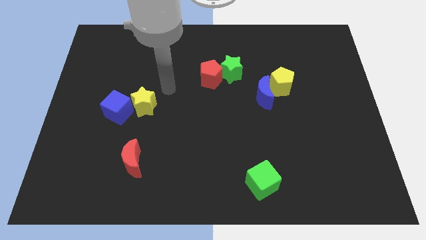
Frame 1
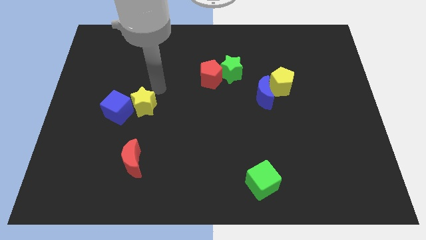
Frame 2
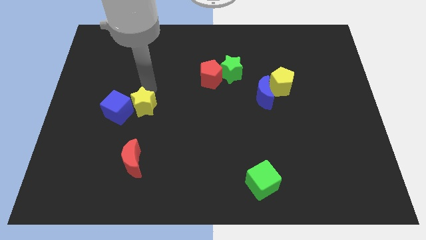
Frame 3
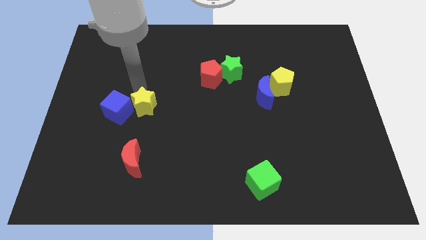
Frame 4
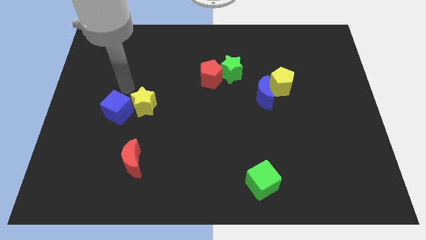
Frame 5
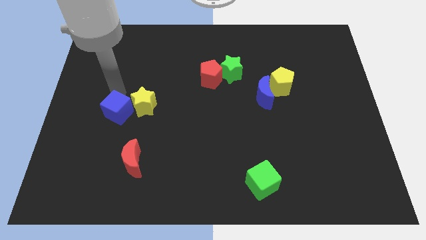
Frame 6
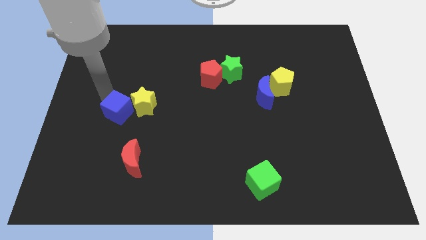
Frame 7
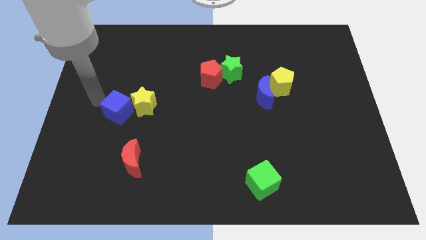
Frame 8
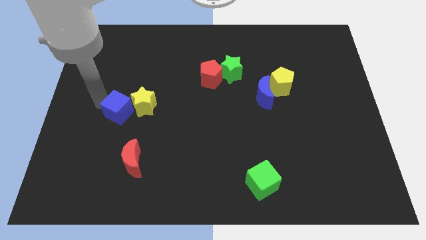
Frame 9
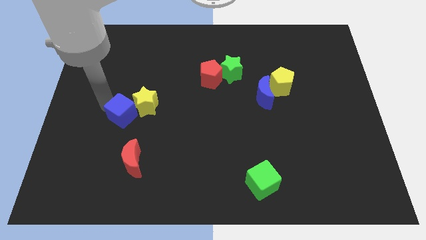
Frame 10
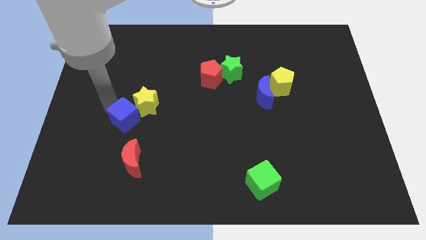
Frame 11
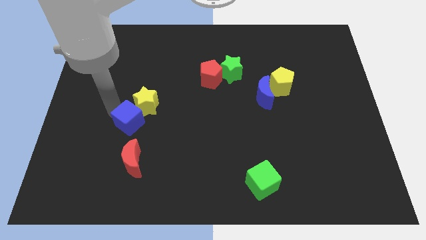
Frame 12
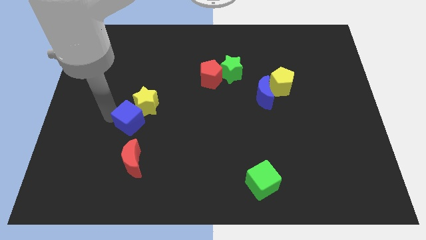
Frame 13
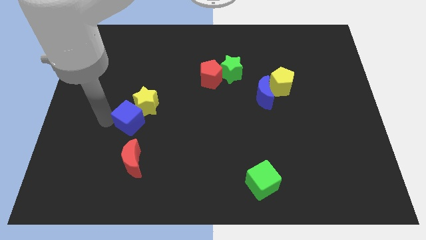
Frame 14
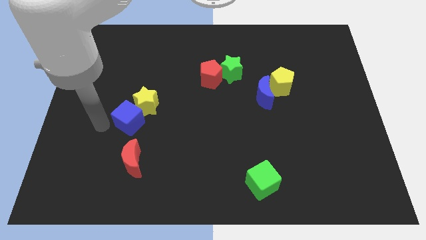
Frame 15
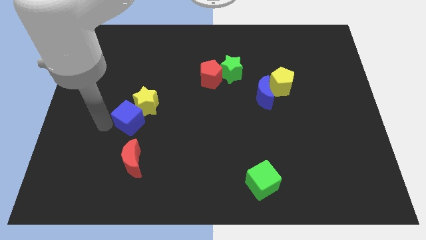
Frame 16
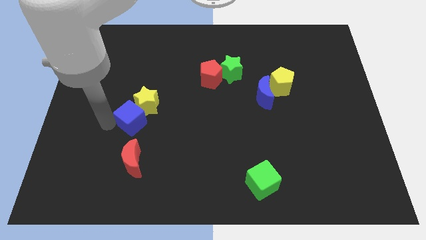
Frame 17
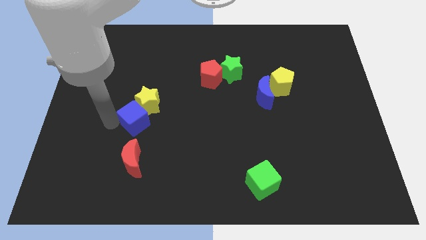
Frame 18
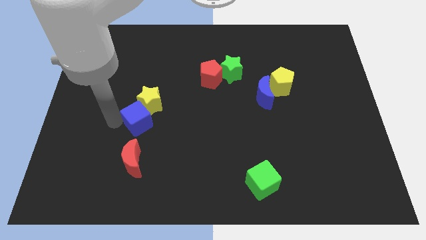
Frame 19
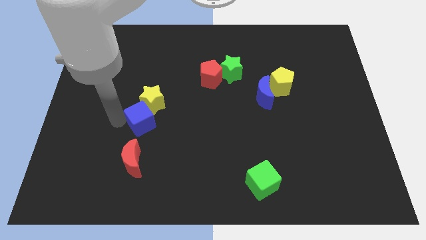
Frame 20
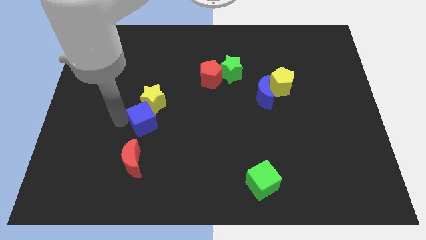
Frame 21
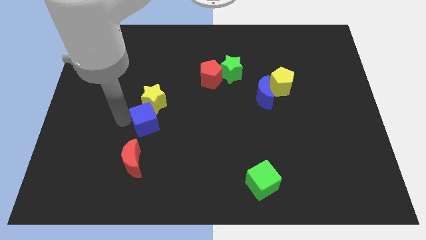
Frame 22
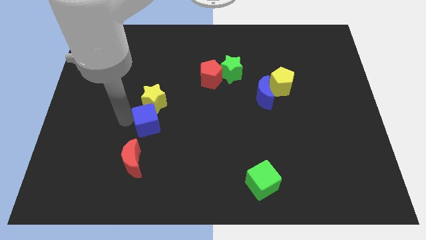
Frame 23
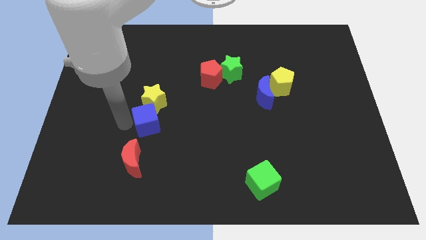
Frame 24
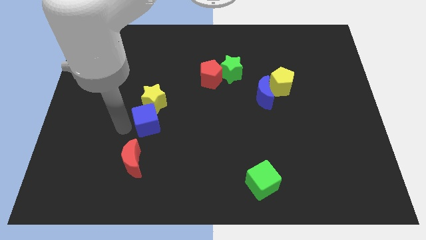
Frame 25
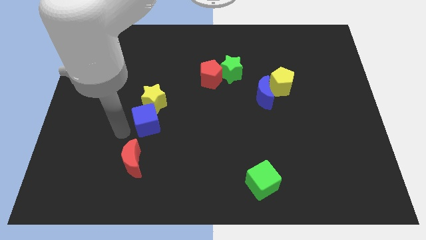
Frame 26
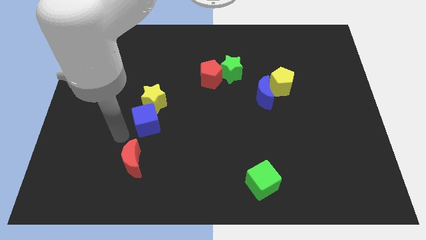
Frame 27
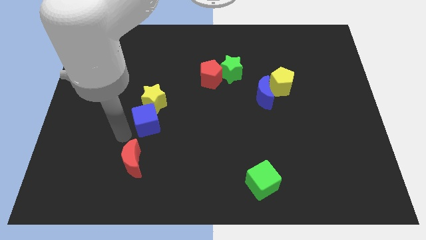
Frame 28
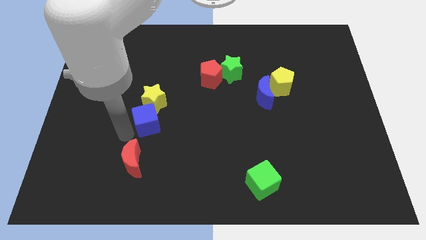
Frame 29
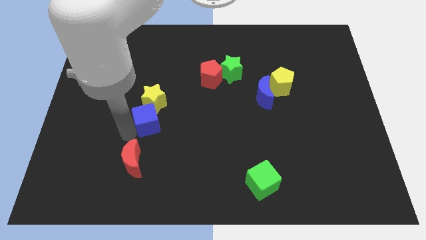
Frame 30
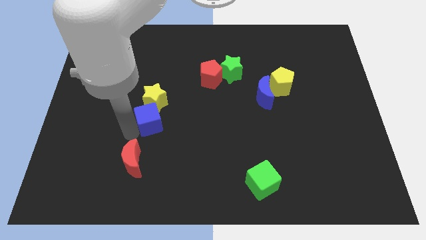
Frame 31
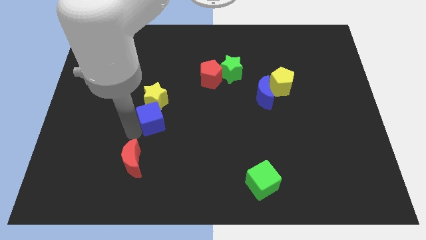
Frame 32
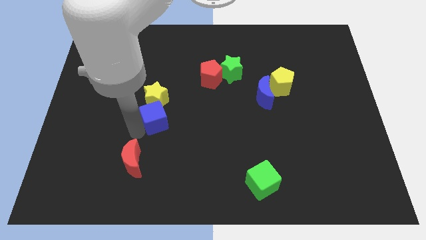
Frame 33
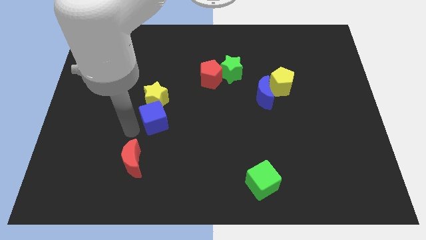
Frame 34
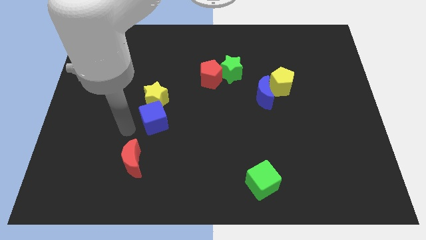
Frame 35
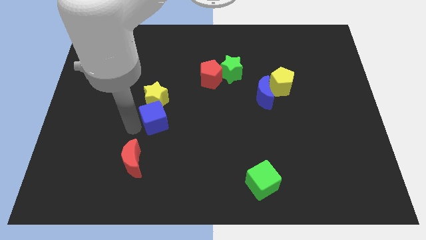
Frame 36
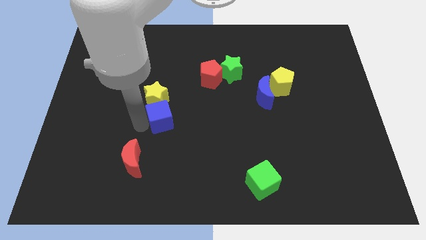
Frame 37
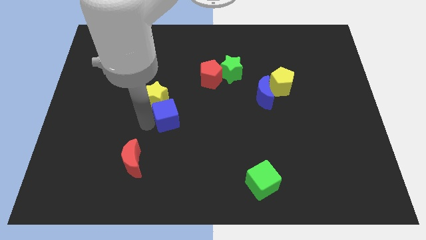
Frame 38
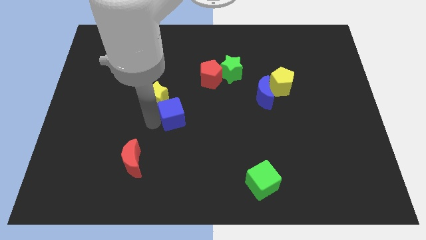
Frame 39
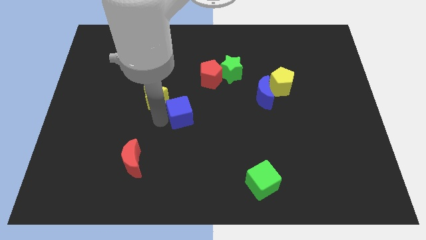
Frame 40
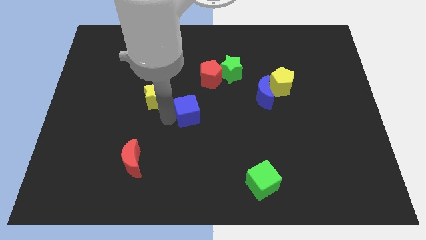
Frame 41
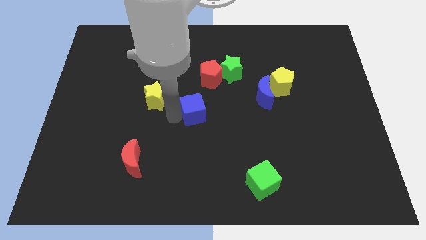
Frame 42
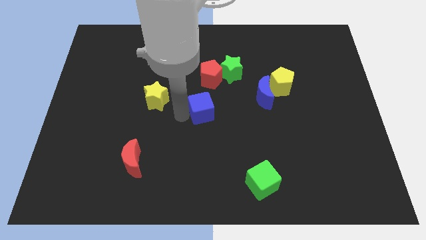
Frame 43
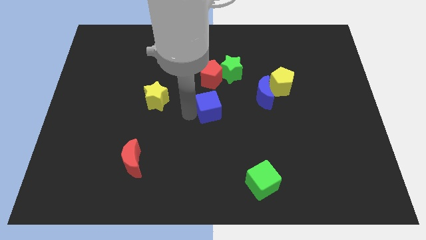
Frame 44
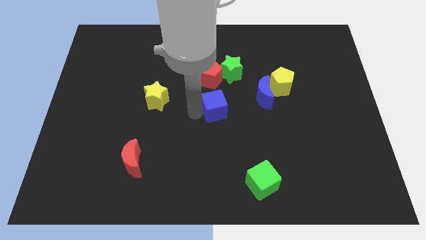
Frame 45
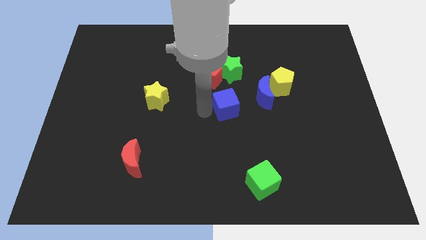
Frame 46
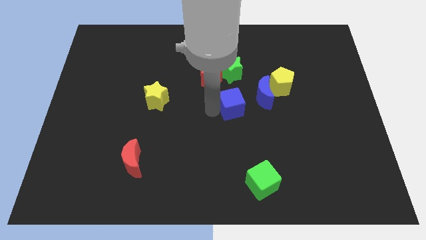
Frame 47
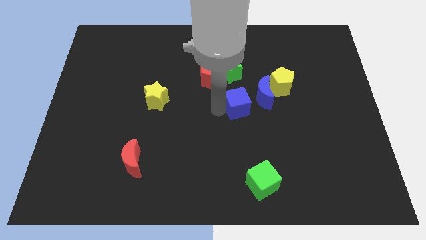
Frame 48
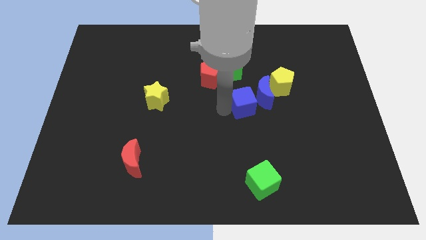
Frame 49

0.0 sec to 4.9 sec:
put the blue cube next to the blue moon

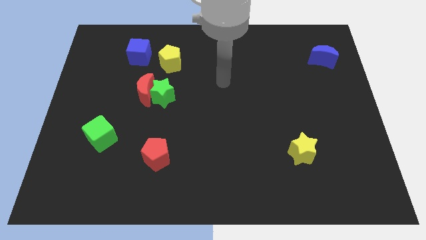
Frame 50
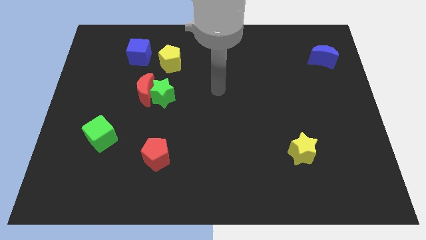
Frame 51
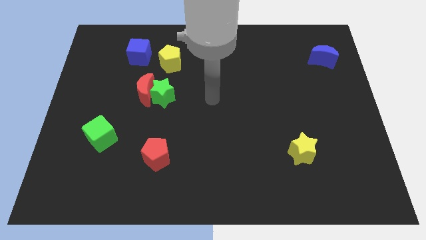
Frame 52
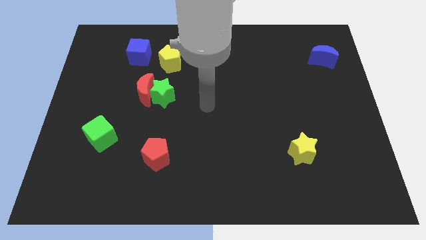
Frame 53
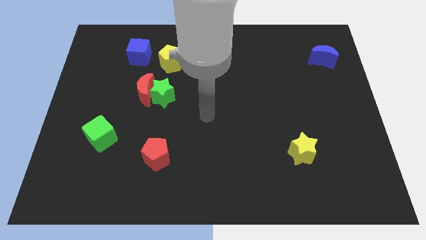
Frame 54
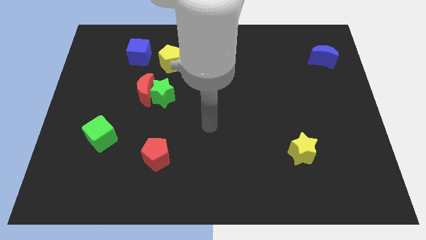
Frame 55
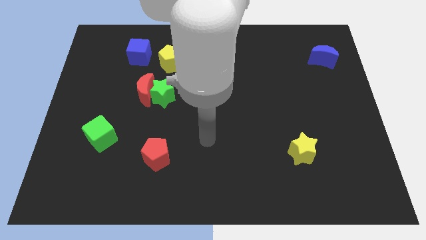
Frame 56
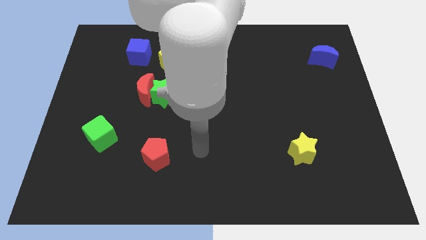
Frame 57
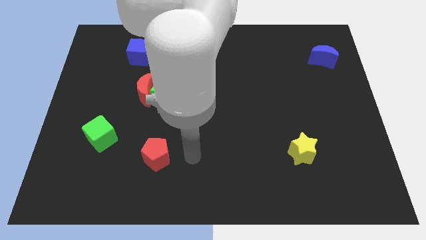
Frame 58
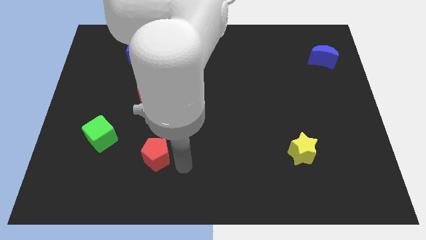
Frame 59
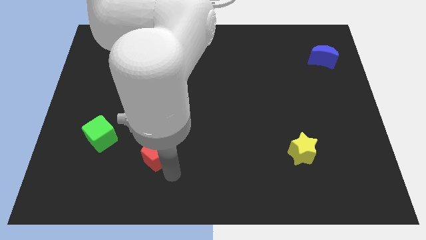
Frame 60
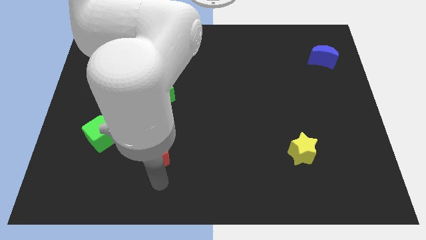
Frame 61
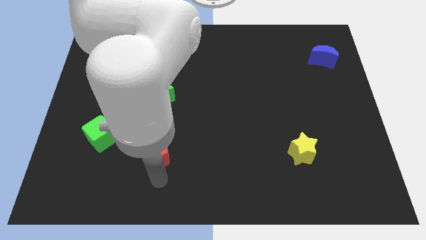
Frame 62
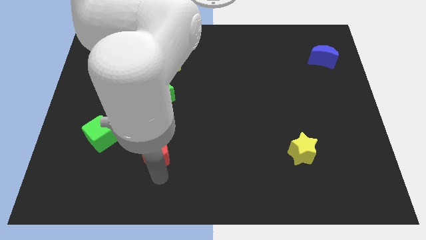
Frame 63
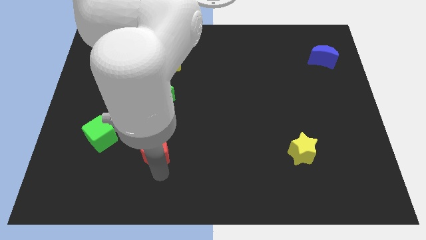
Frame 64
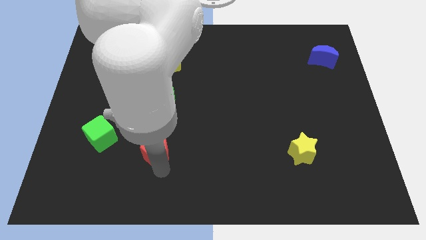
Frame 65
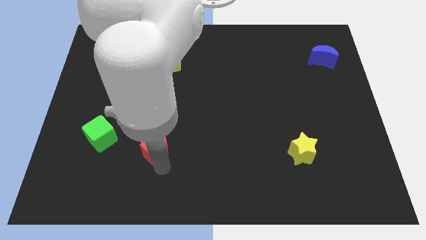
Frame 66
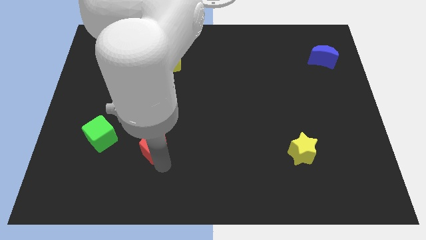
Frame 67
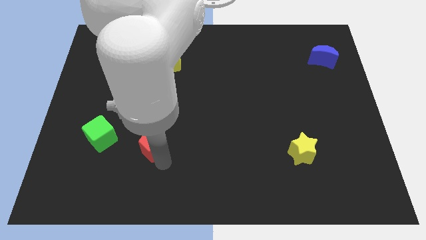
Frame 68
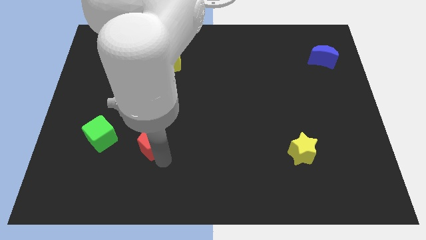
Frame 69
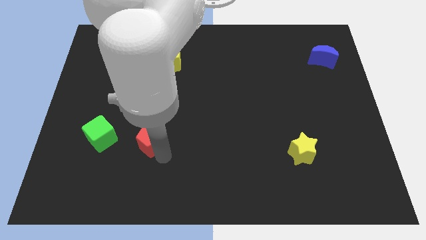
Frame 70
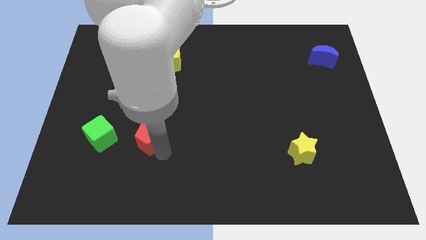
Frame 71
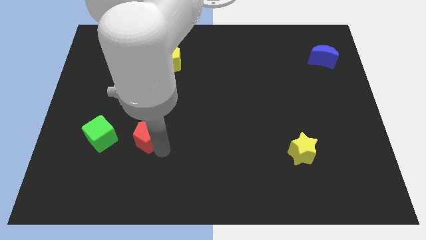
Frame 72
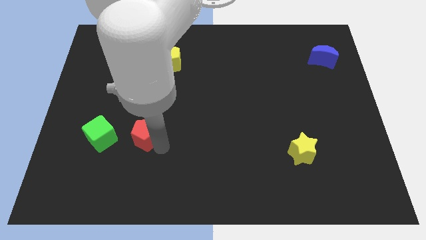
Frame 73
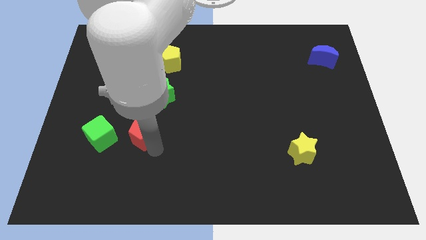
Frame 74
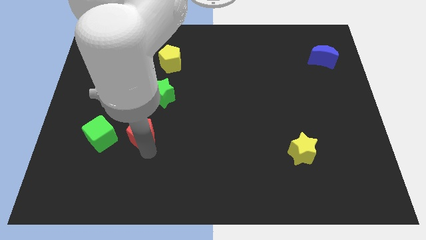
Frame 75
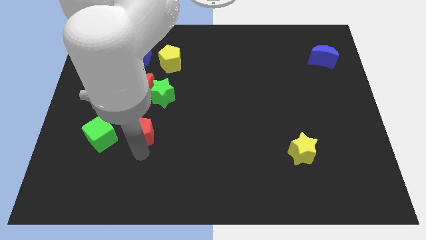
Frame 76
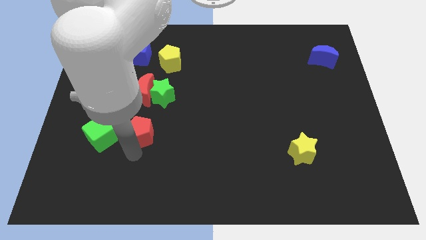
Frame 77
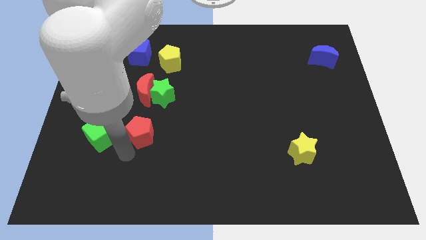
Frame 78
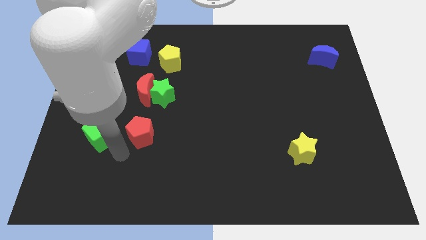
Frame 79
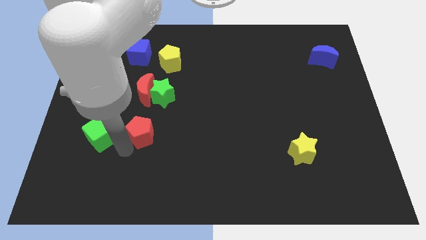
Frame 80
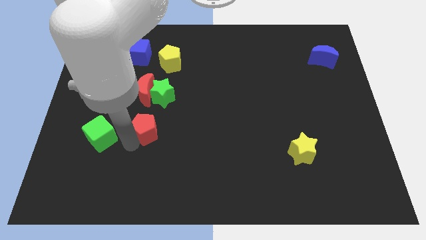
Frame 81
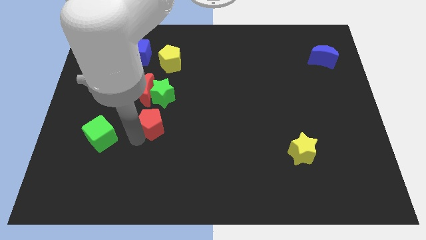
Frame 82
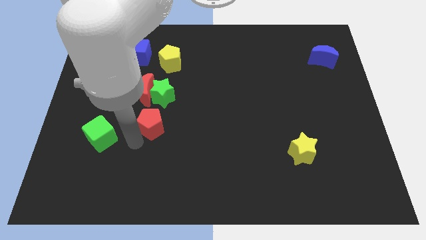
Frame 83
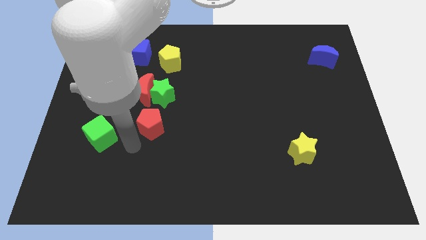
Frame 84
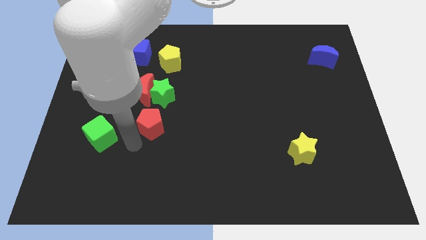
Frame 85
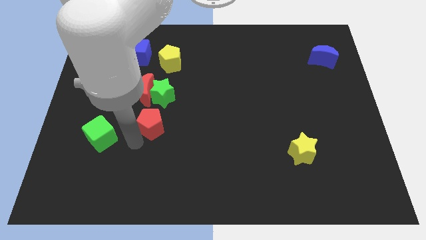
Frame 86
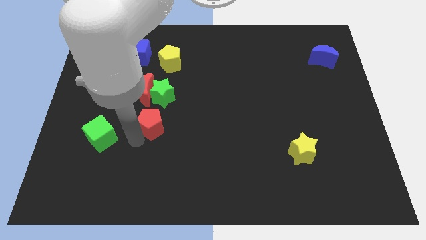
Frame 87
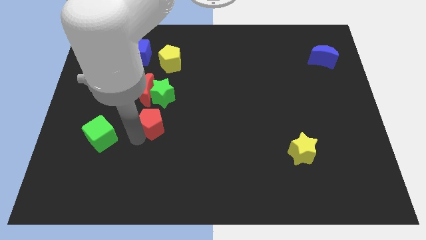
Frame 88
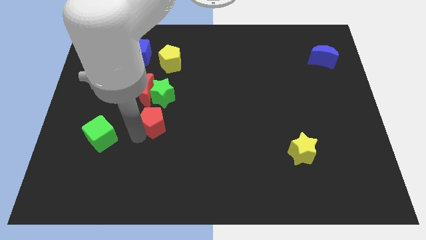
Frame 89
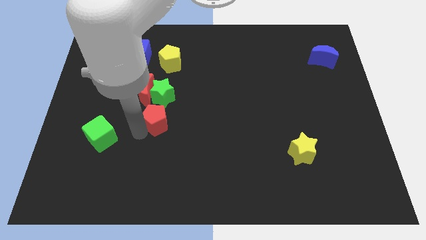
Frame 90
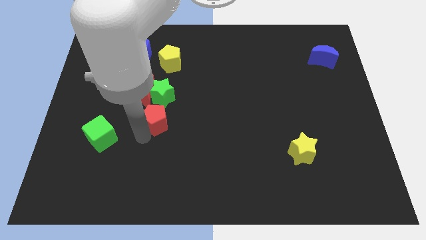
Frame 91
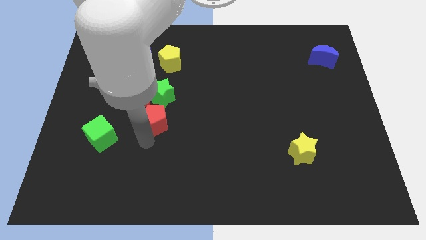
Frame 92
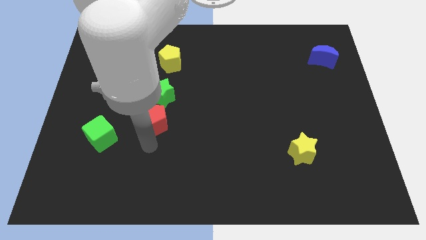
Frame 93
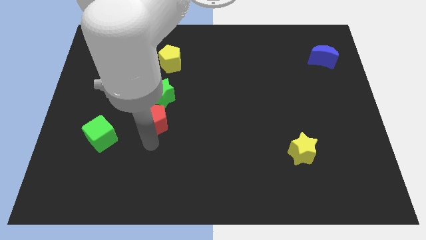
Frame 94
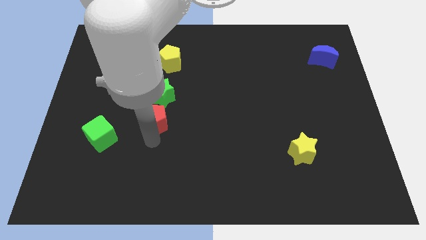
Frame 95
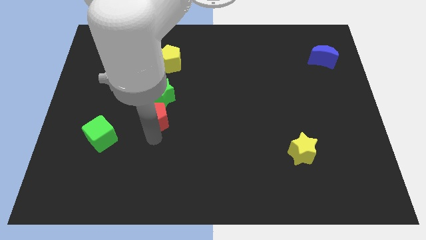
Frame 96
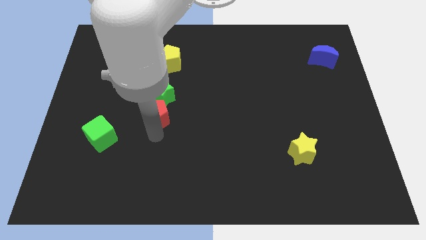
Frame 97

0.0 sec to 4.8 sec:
push the red pentagon towards the green star
